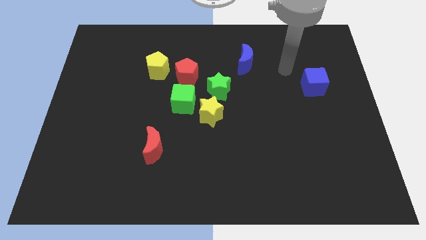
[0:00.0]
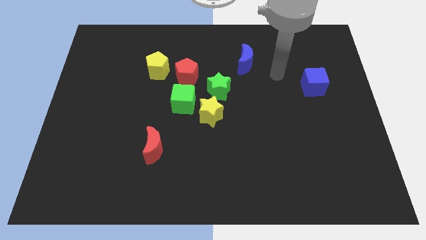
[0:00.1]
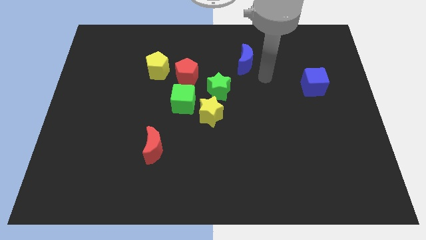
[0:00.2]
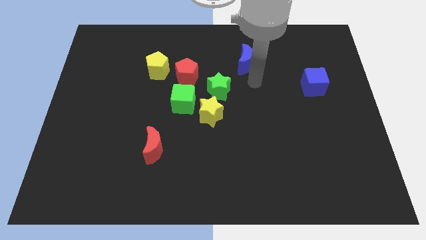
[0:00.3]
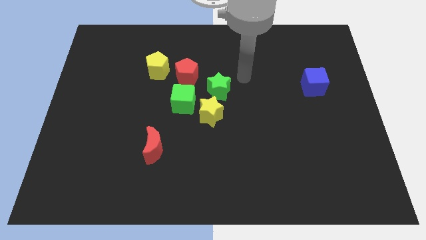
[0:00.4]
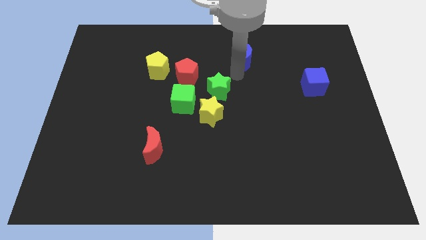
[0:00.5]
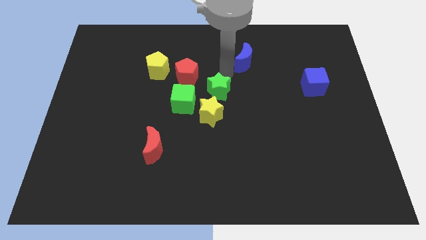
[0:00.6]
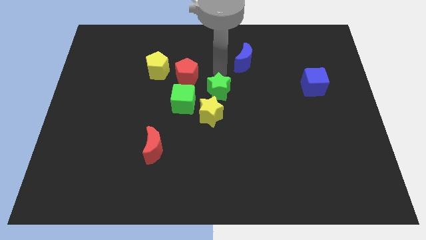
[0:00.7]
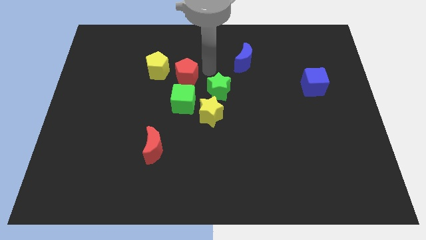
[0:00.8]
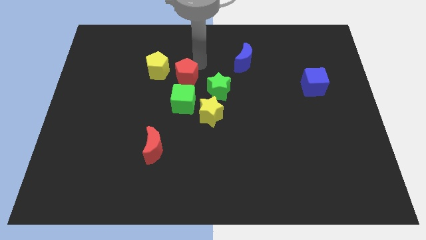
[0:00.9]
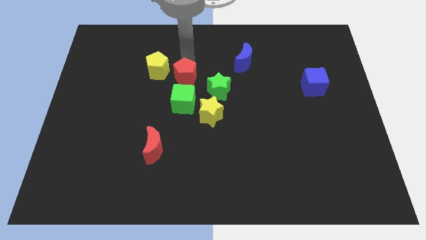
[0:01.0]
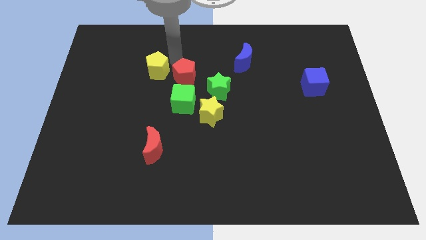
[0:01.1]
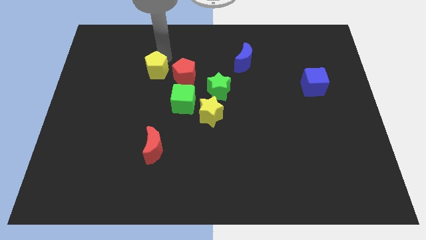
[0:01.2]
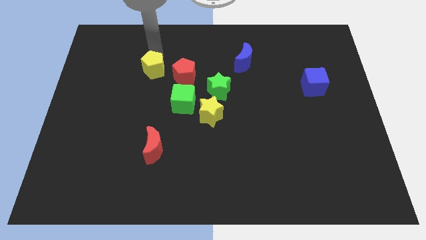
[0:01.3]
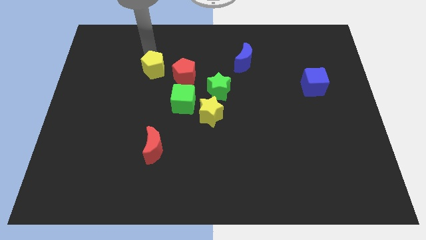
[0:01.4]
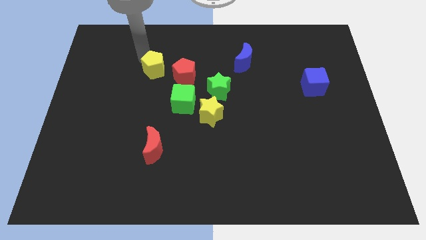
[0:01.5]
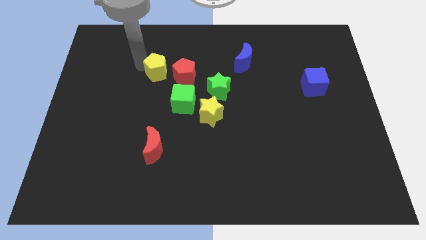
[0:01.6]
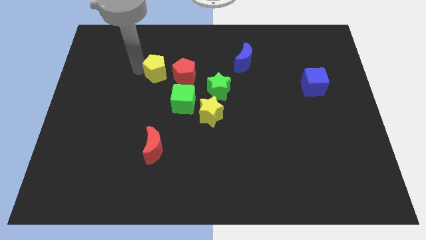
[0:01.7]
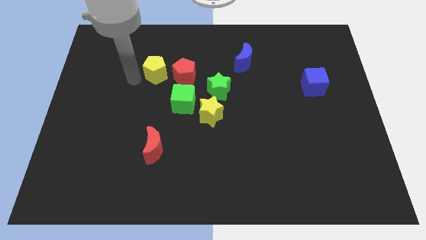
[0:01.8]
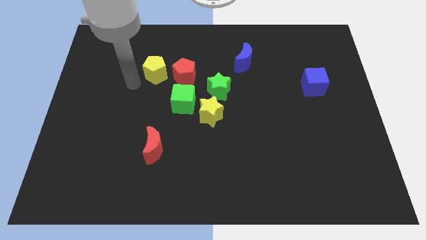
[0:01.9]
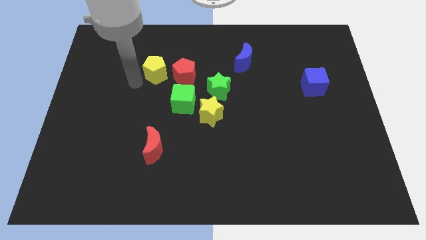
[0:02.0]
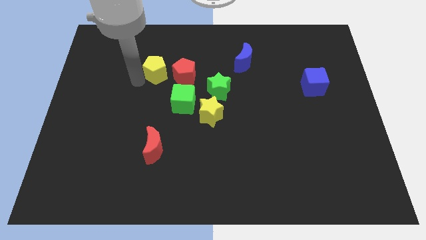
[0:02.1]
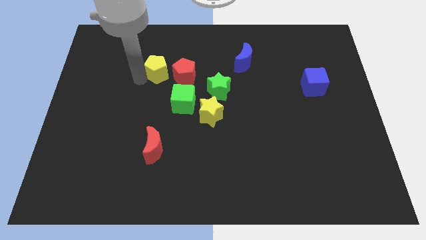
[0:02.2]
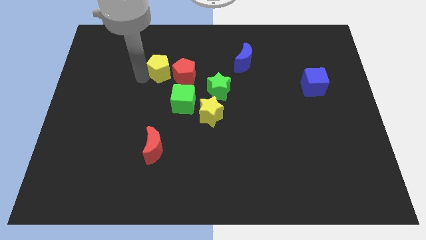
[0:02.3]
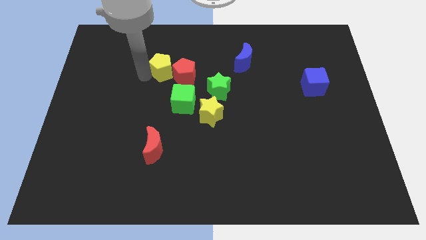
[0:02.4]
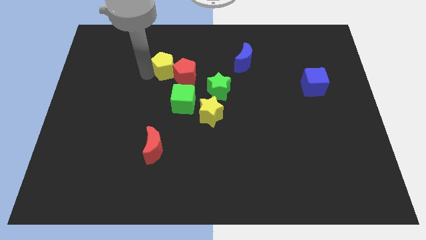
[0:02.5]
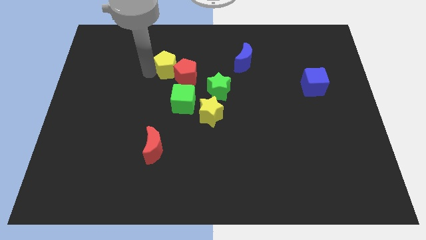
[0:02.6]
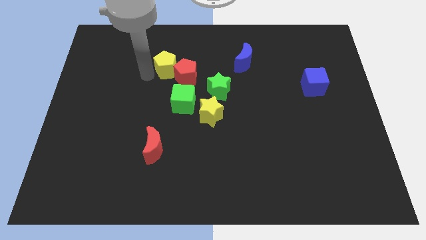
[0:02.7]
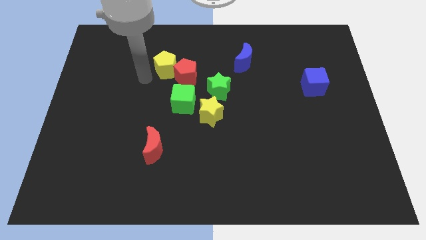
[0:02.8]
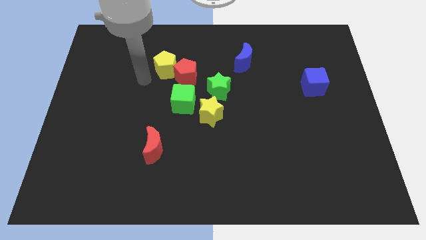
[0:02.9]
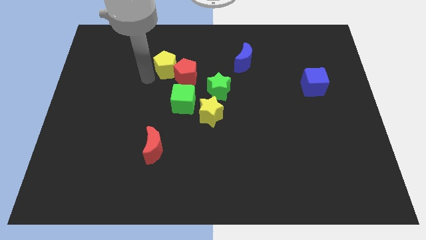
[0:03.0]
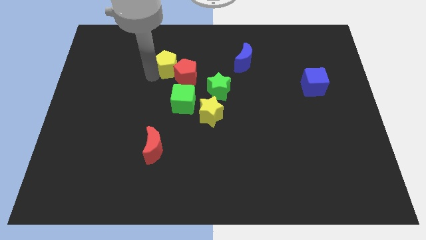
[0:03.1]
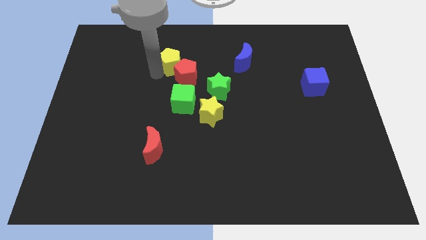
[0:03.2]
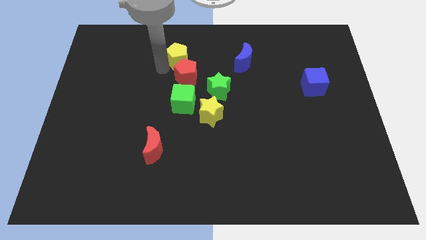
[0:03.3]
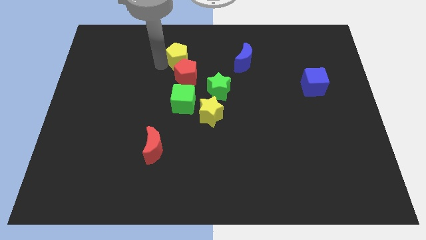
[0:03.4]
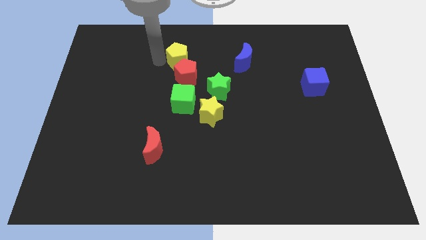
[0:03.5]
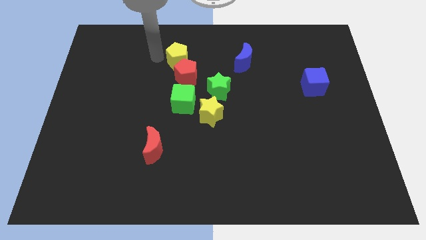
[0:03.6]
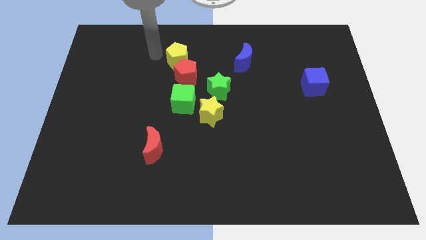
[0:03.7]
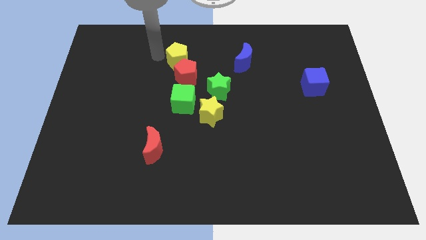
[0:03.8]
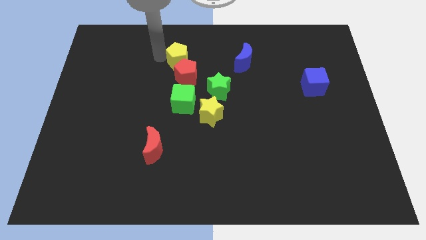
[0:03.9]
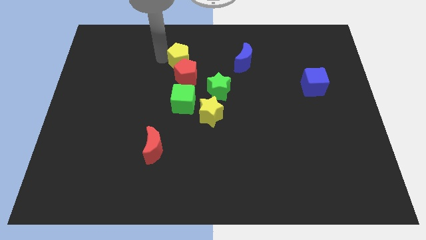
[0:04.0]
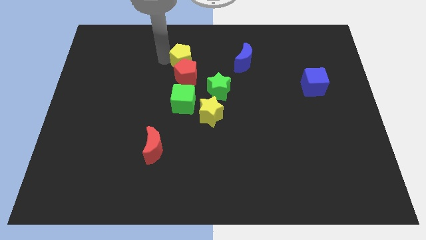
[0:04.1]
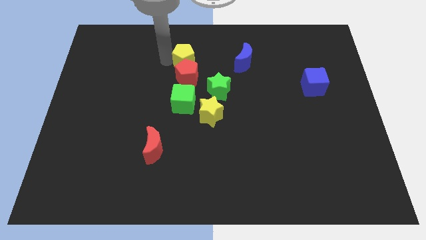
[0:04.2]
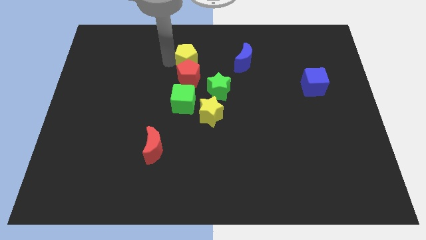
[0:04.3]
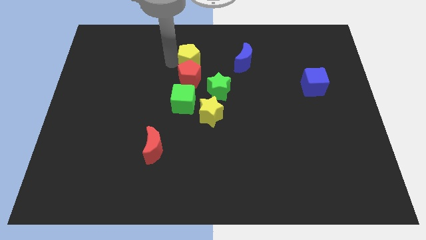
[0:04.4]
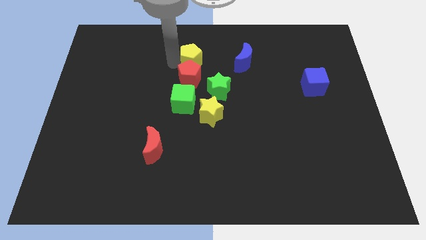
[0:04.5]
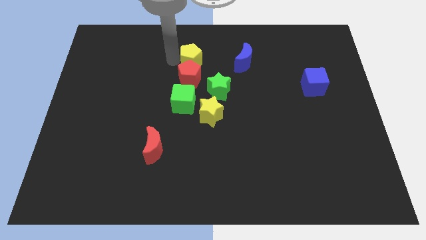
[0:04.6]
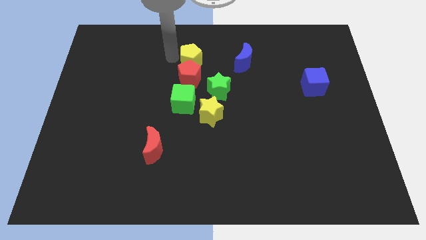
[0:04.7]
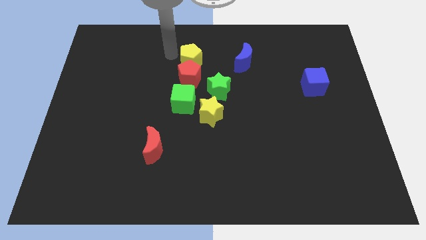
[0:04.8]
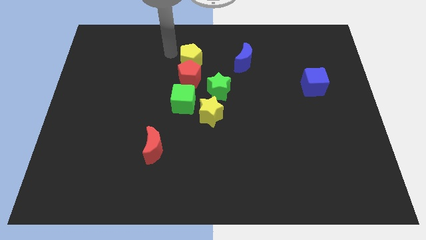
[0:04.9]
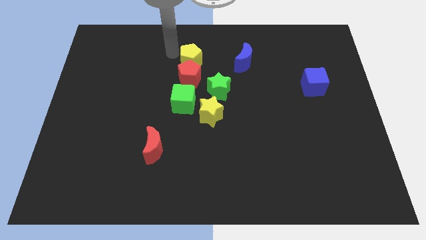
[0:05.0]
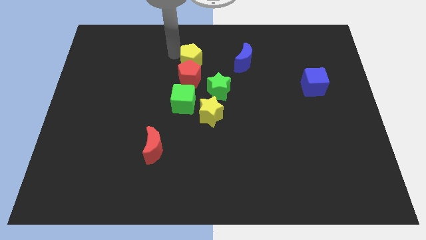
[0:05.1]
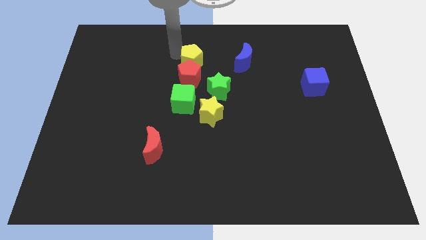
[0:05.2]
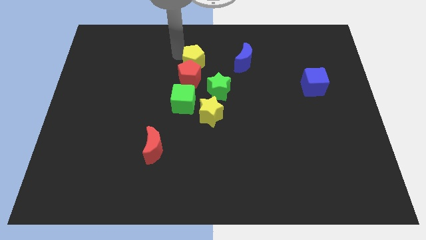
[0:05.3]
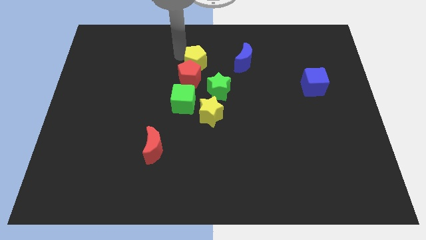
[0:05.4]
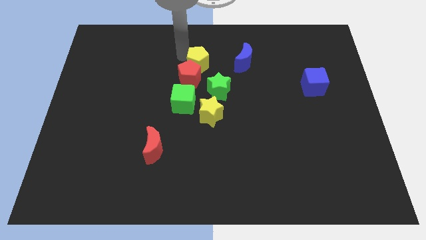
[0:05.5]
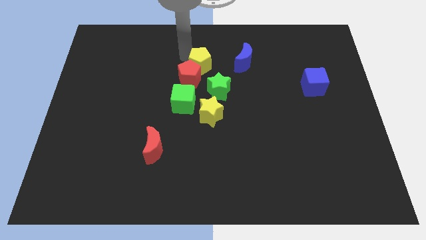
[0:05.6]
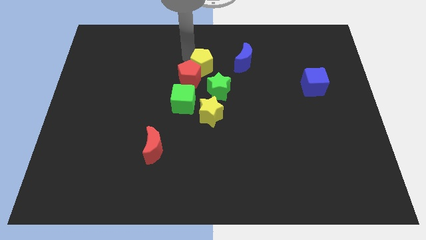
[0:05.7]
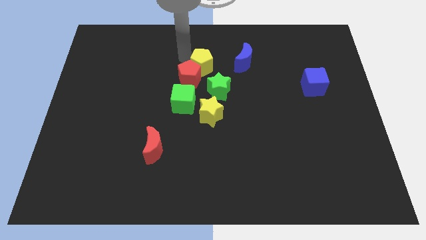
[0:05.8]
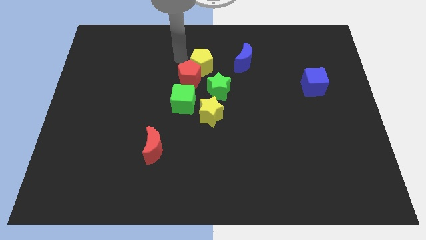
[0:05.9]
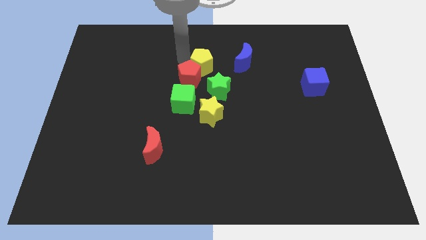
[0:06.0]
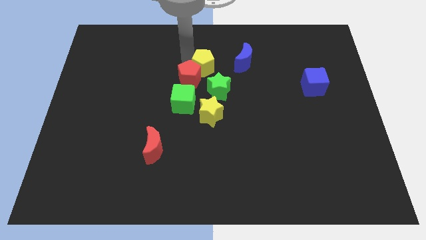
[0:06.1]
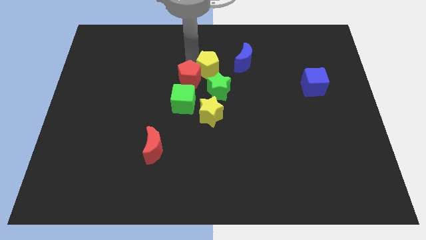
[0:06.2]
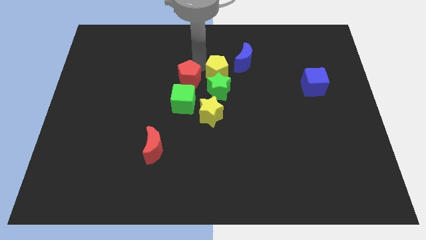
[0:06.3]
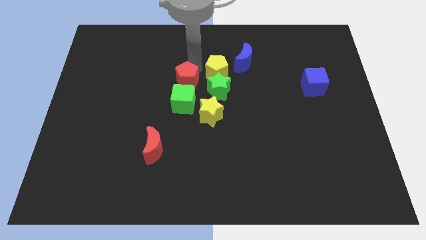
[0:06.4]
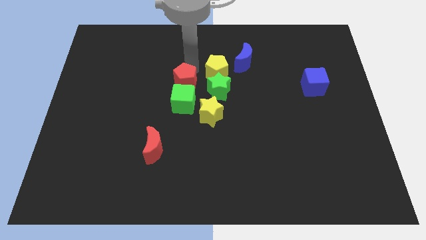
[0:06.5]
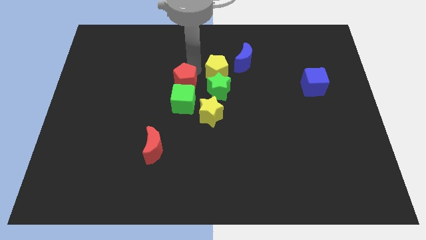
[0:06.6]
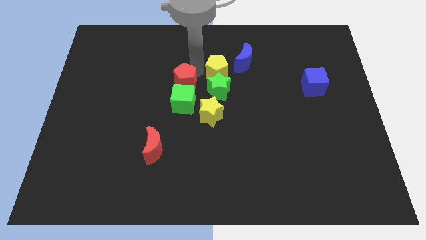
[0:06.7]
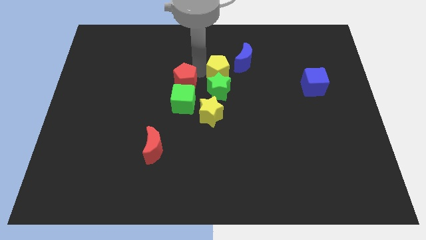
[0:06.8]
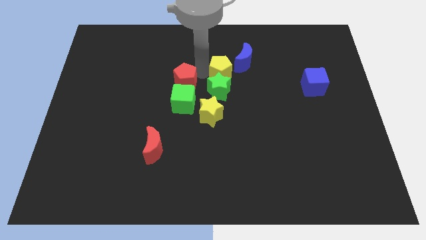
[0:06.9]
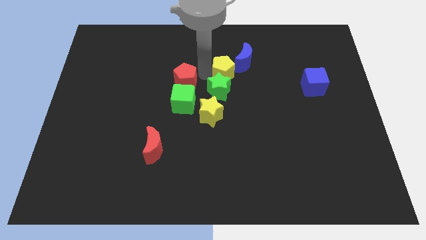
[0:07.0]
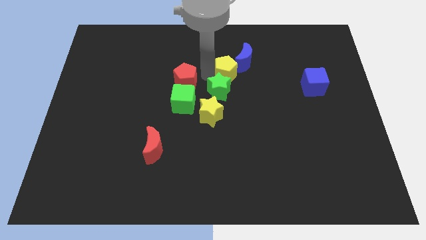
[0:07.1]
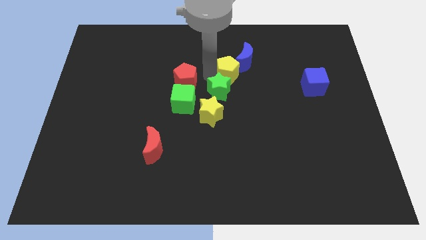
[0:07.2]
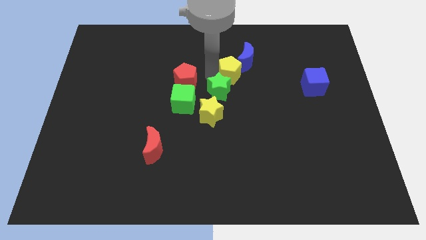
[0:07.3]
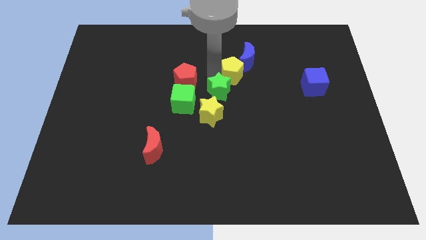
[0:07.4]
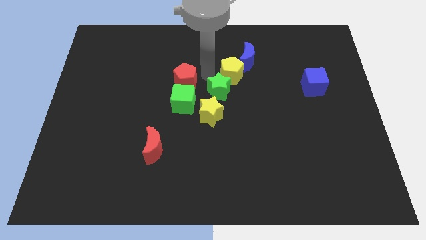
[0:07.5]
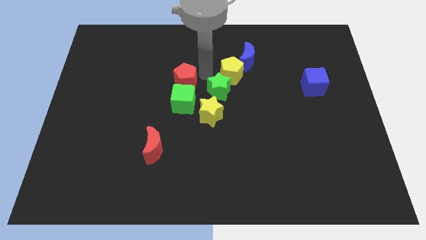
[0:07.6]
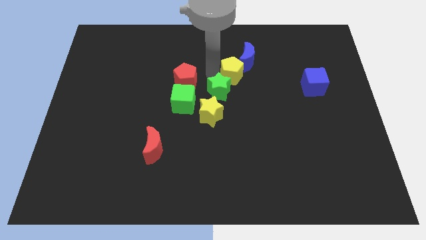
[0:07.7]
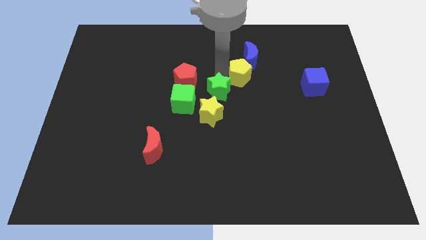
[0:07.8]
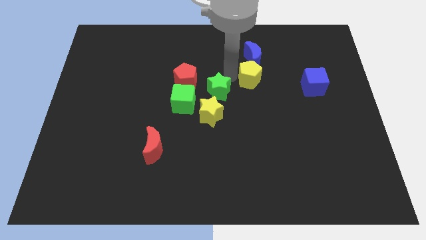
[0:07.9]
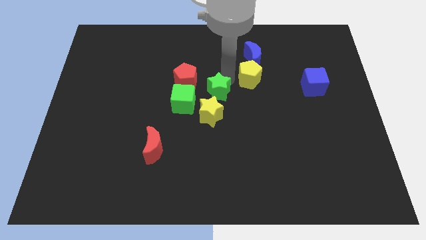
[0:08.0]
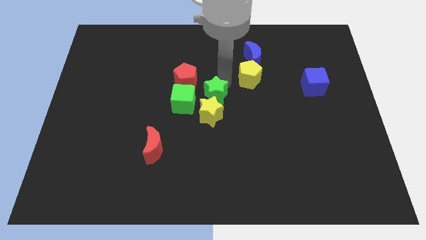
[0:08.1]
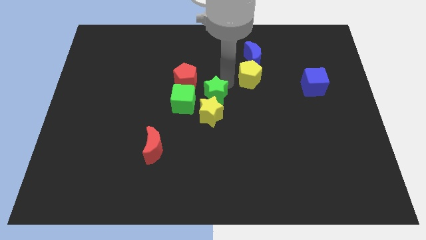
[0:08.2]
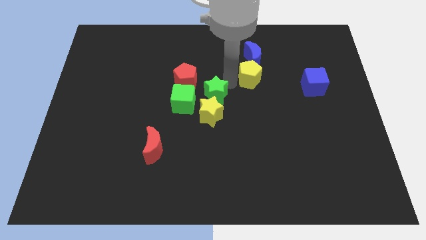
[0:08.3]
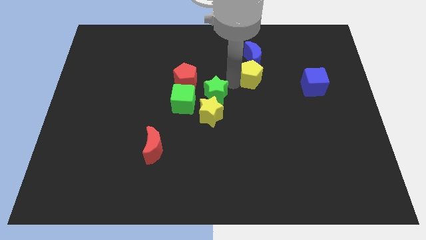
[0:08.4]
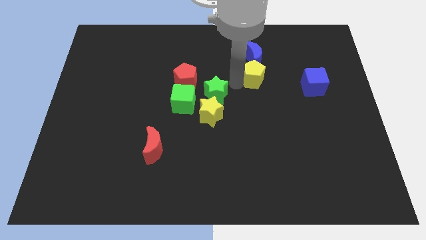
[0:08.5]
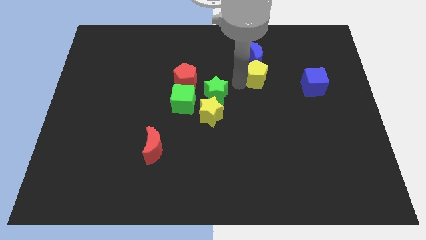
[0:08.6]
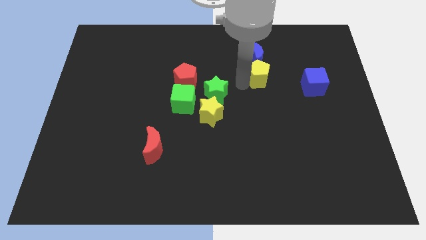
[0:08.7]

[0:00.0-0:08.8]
slide the yellow pentagon to the bottom right side of the blue moon
